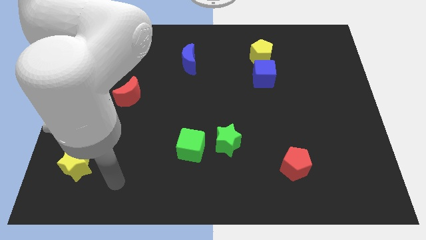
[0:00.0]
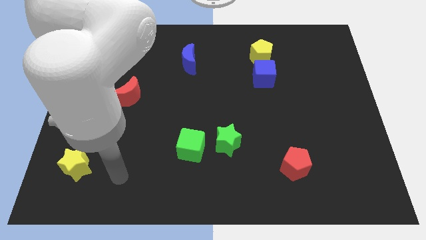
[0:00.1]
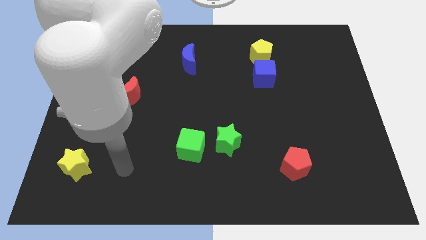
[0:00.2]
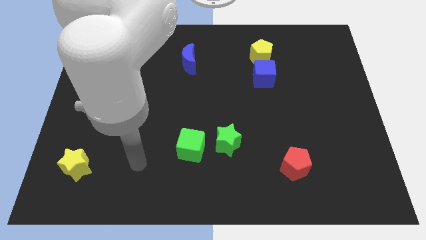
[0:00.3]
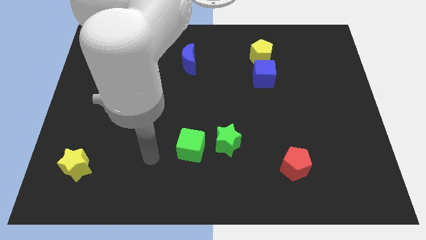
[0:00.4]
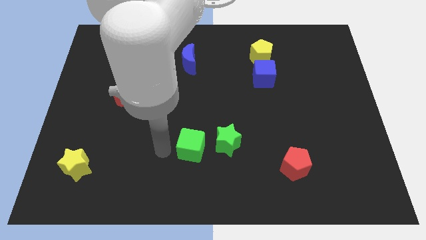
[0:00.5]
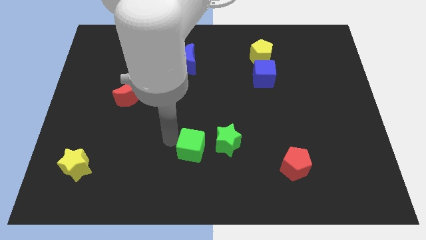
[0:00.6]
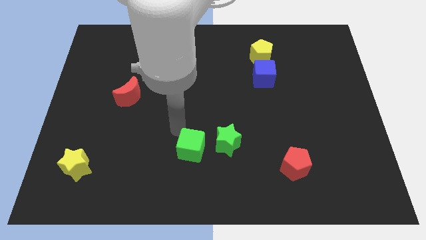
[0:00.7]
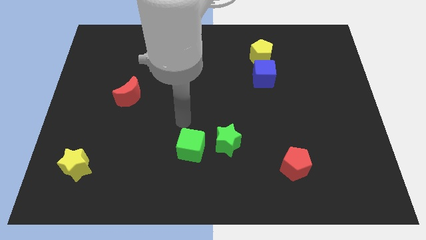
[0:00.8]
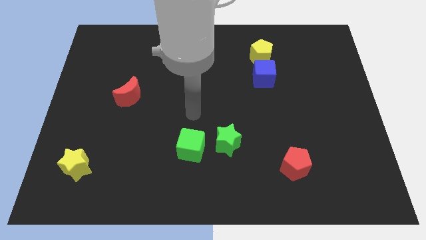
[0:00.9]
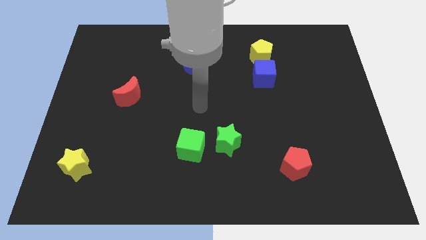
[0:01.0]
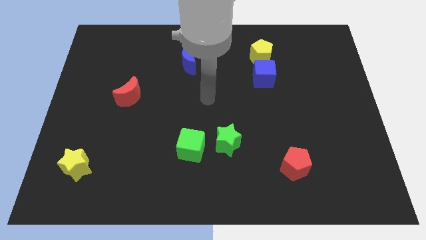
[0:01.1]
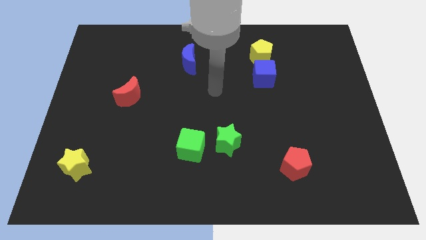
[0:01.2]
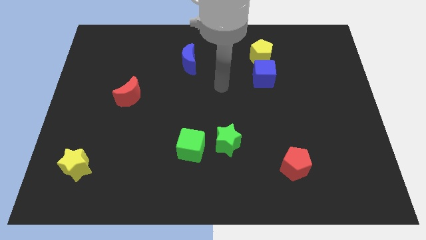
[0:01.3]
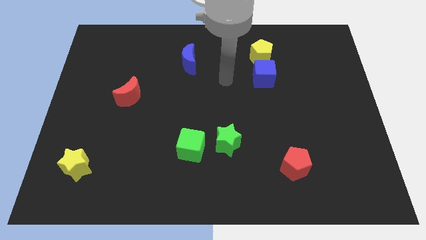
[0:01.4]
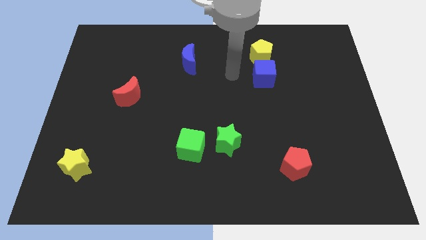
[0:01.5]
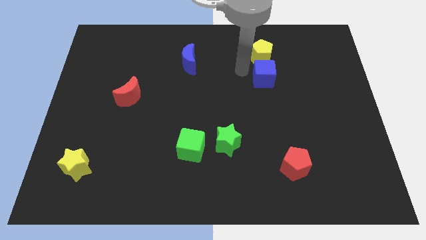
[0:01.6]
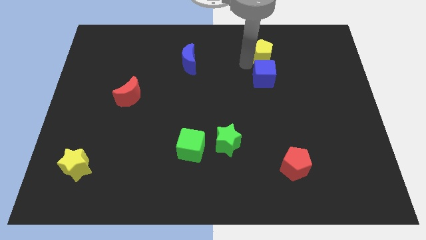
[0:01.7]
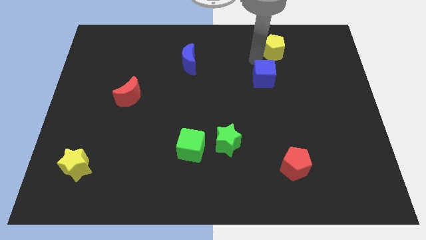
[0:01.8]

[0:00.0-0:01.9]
move the blue cube away from the yellow pentagon

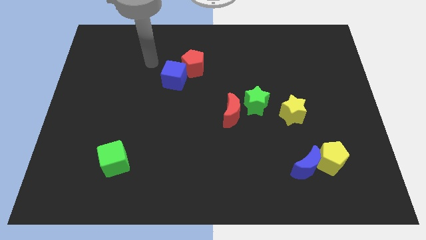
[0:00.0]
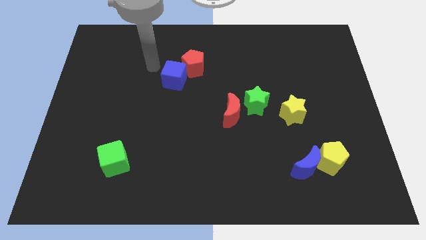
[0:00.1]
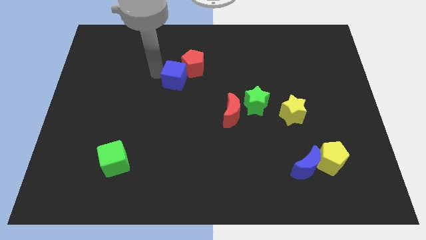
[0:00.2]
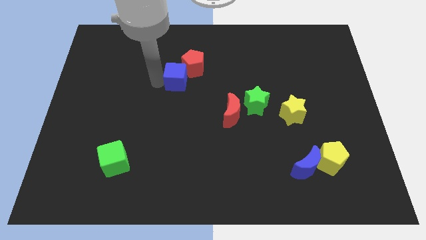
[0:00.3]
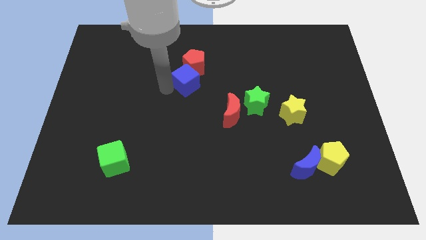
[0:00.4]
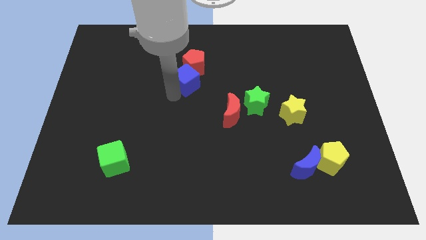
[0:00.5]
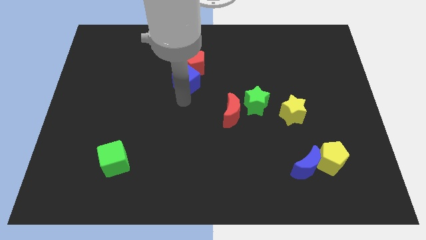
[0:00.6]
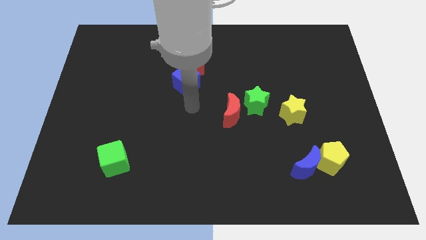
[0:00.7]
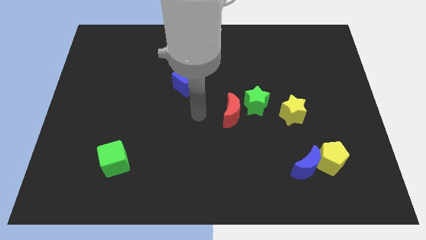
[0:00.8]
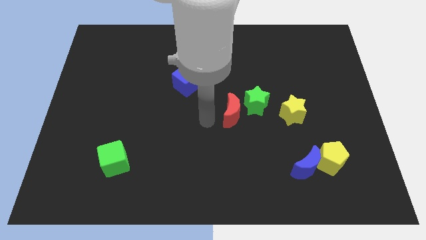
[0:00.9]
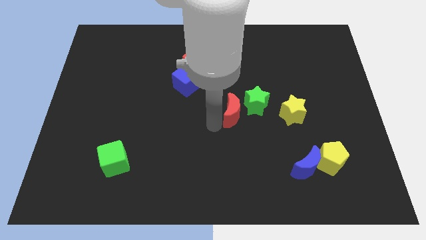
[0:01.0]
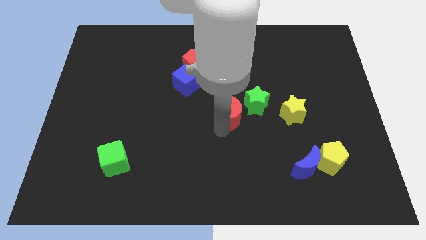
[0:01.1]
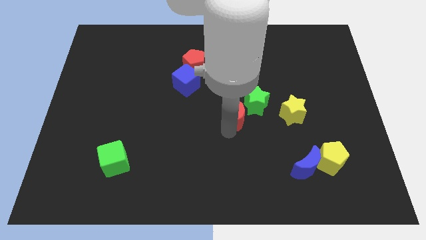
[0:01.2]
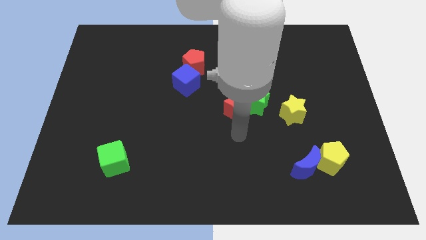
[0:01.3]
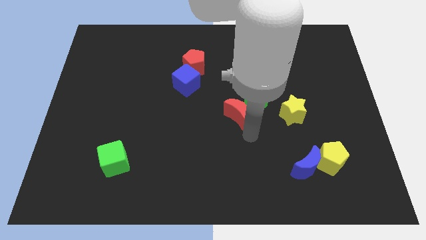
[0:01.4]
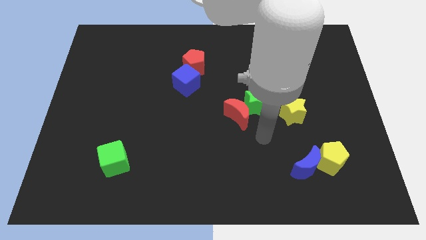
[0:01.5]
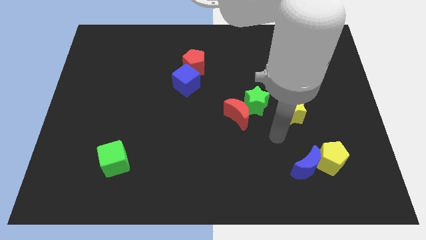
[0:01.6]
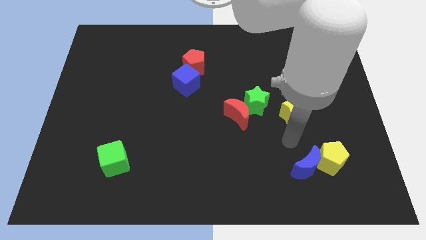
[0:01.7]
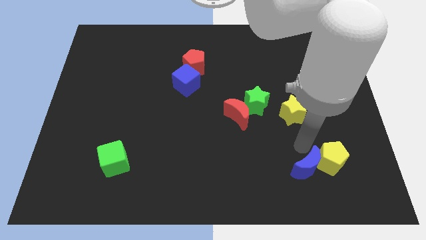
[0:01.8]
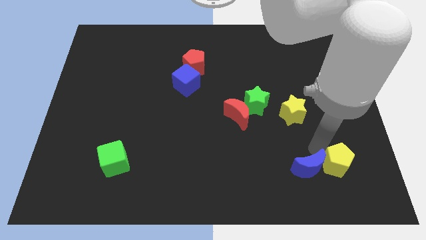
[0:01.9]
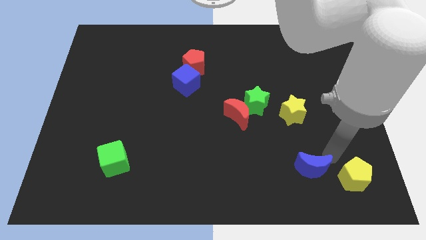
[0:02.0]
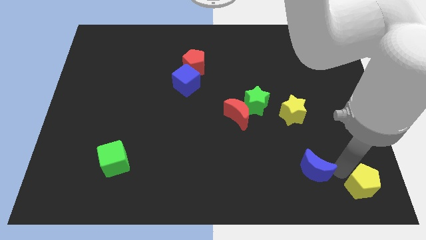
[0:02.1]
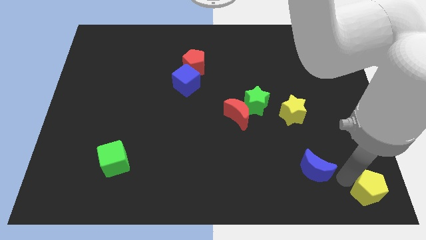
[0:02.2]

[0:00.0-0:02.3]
pull the blue moon apart from the yellow pentagon

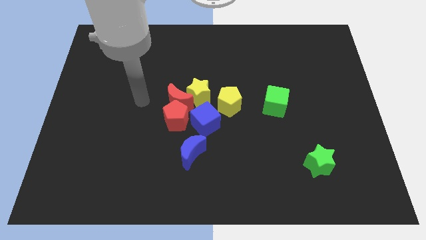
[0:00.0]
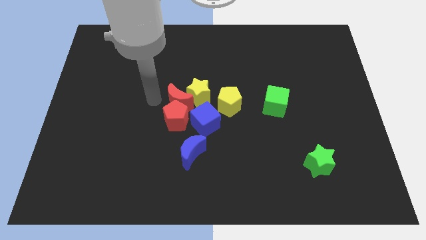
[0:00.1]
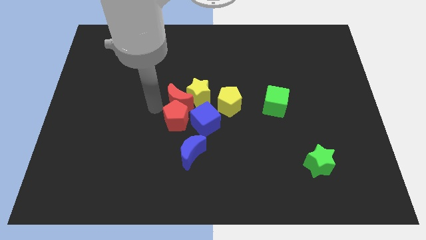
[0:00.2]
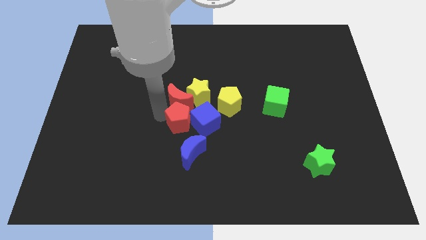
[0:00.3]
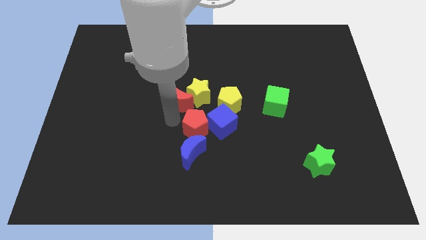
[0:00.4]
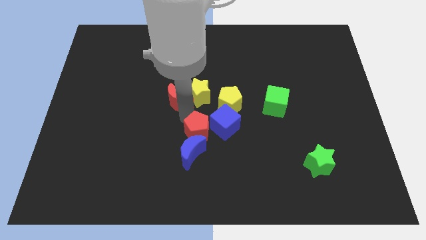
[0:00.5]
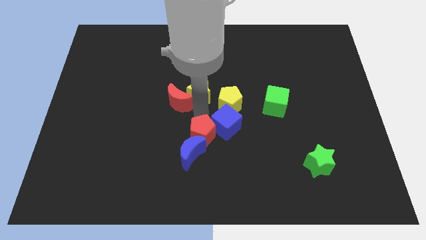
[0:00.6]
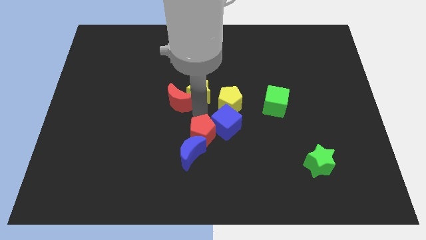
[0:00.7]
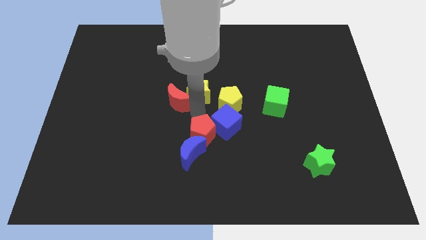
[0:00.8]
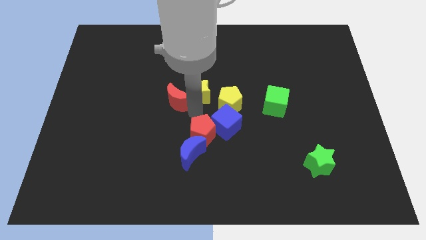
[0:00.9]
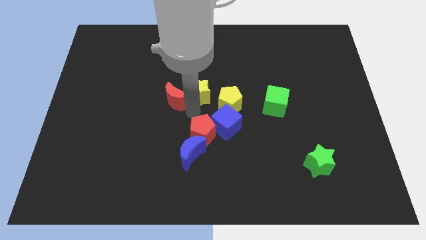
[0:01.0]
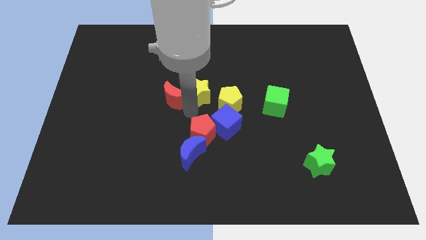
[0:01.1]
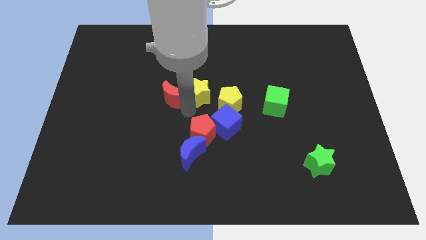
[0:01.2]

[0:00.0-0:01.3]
separate the red moon from the group

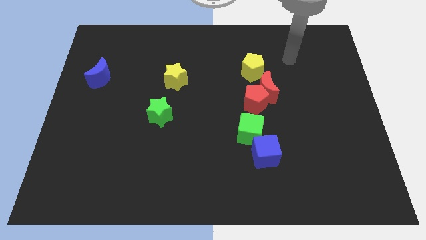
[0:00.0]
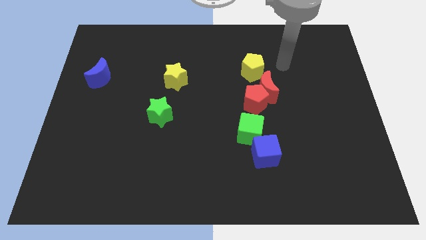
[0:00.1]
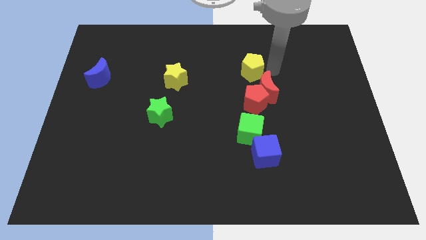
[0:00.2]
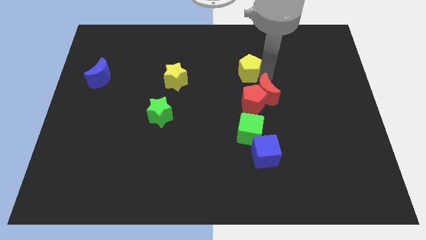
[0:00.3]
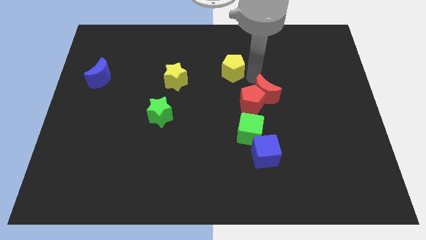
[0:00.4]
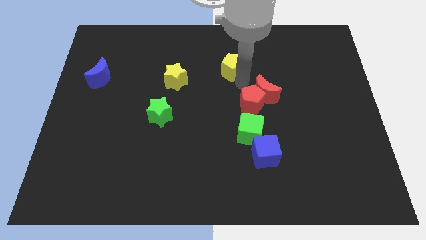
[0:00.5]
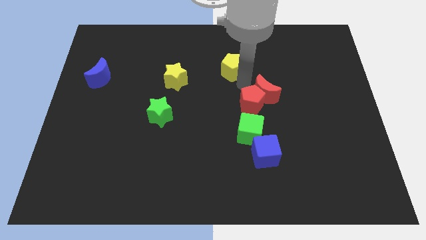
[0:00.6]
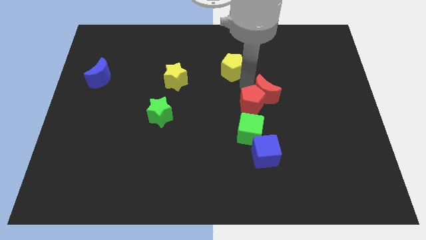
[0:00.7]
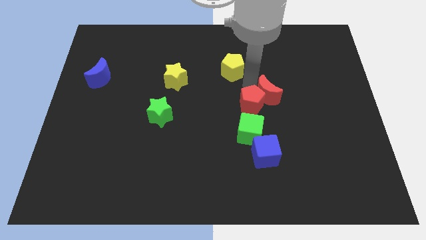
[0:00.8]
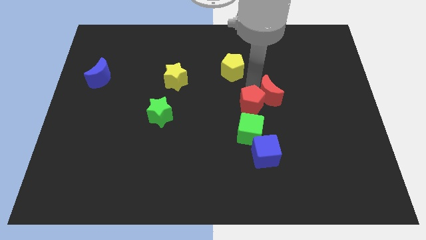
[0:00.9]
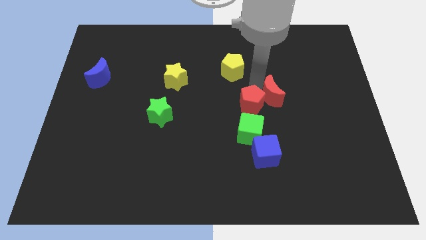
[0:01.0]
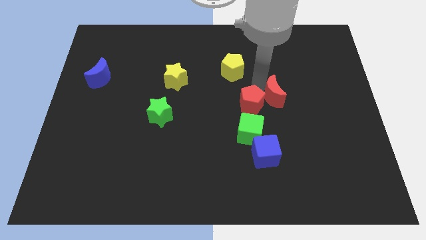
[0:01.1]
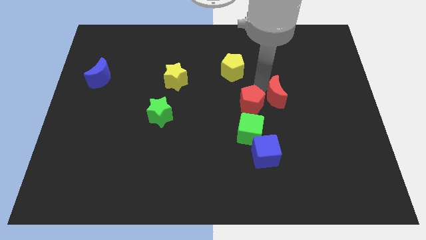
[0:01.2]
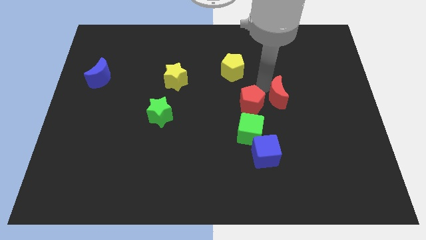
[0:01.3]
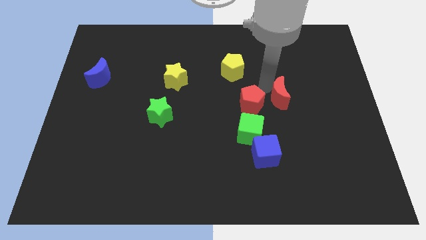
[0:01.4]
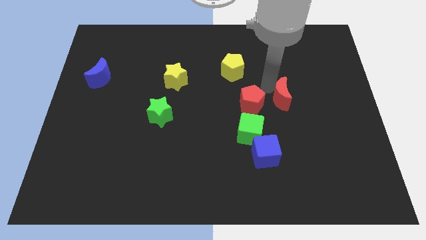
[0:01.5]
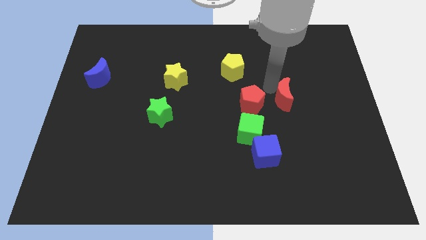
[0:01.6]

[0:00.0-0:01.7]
pull the red moon apart from the red pentagon and yellow pentagon

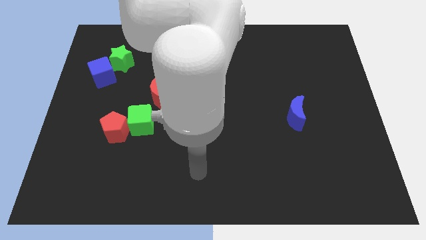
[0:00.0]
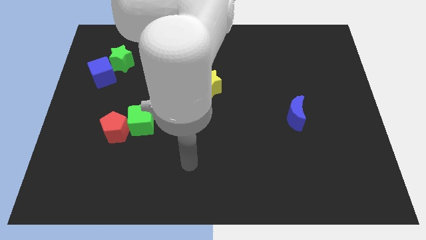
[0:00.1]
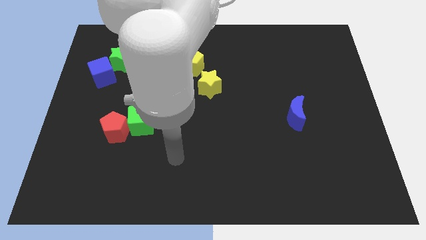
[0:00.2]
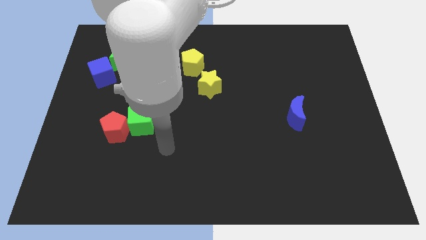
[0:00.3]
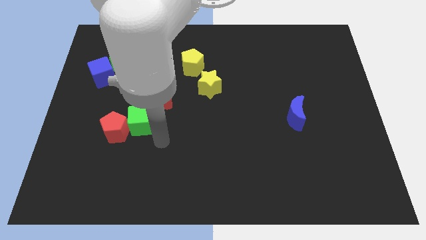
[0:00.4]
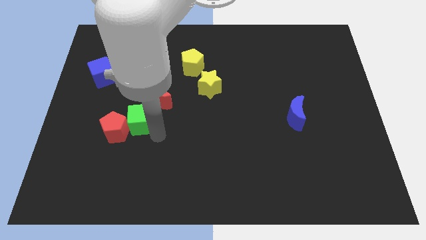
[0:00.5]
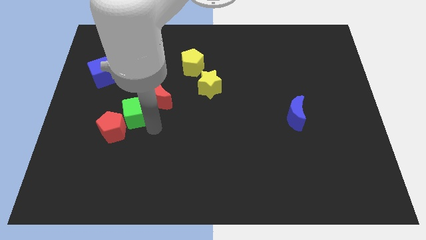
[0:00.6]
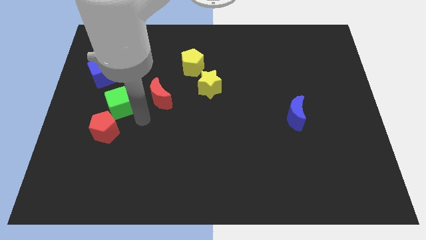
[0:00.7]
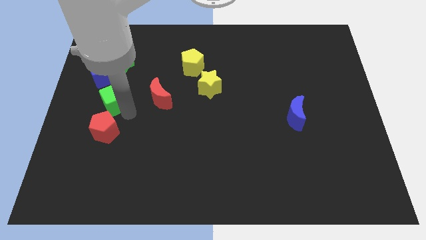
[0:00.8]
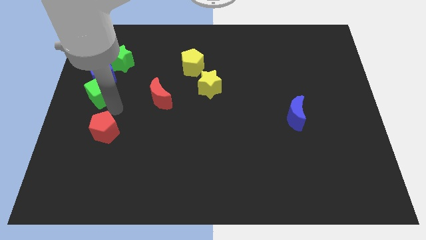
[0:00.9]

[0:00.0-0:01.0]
separate the red pentagon from the green cube

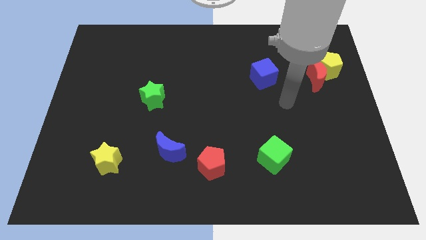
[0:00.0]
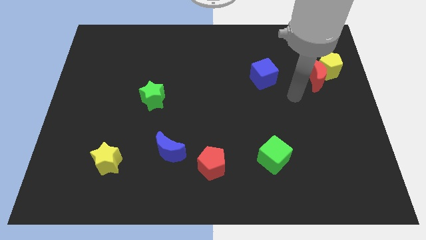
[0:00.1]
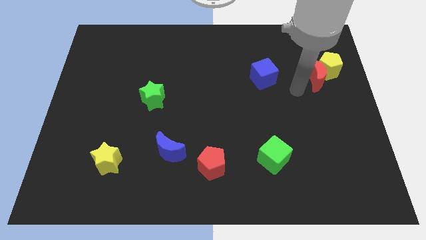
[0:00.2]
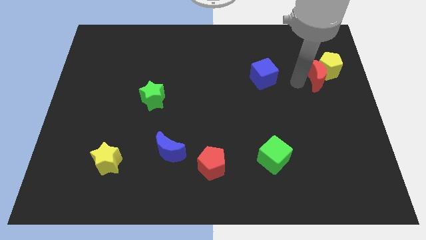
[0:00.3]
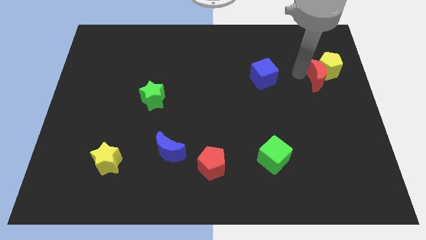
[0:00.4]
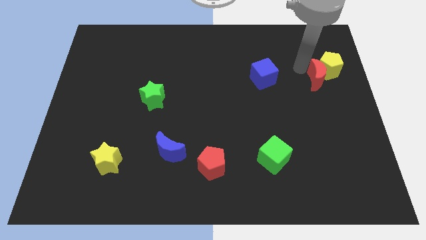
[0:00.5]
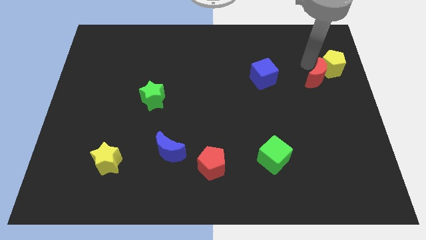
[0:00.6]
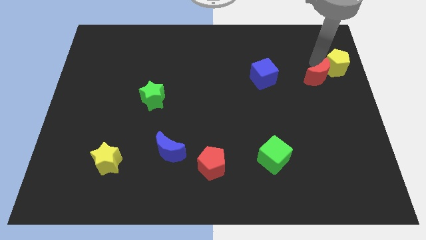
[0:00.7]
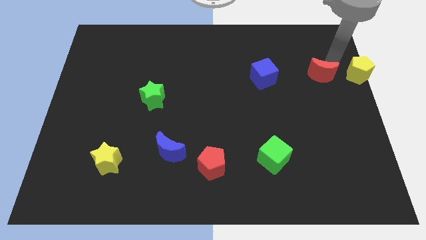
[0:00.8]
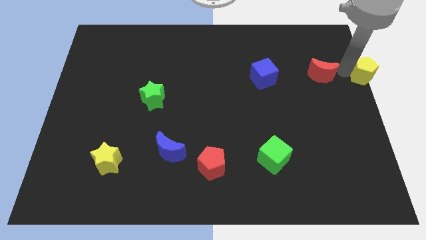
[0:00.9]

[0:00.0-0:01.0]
separate the red moon from the yellow pentagon

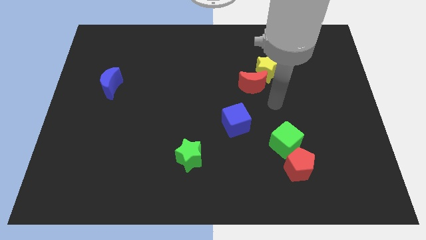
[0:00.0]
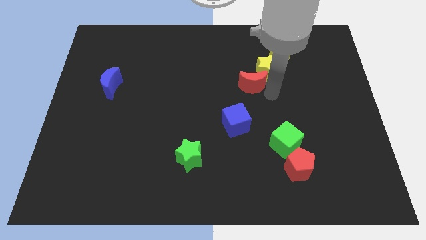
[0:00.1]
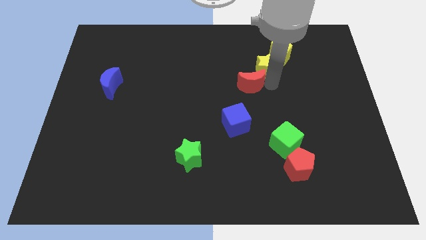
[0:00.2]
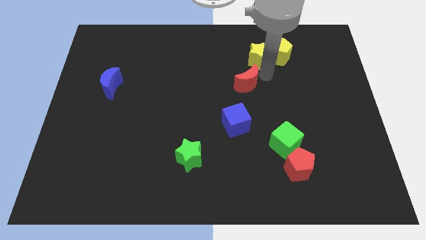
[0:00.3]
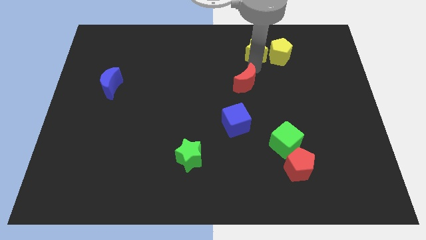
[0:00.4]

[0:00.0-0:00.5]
move the red moon away from the yellow star
